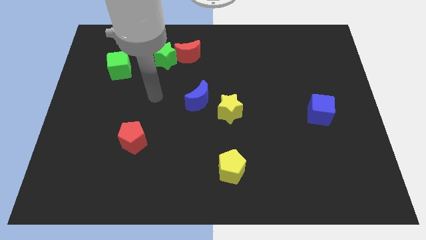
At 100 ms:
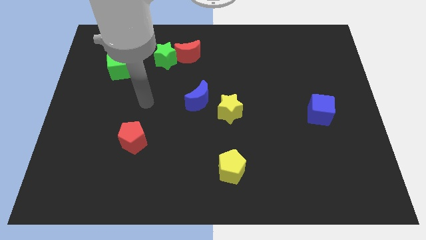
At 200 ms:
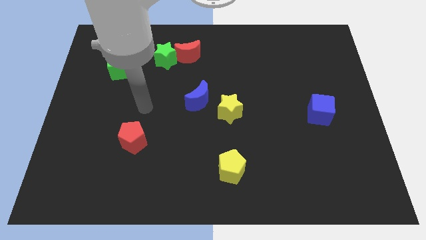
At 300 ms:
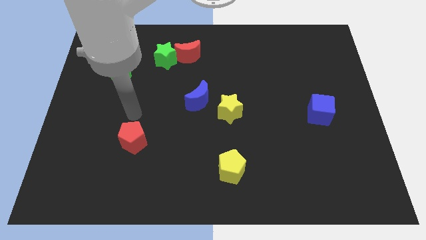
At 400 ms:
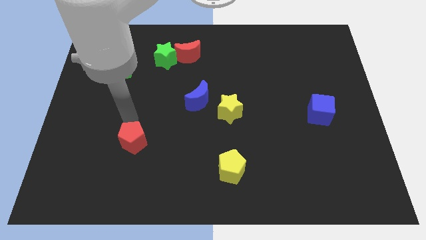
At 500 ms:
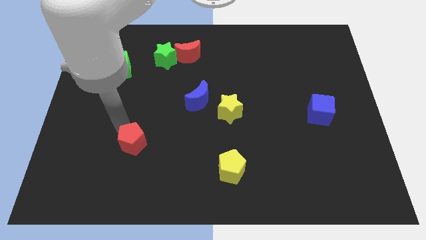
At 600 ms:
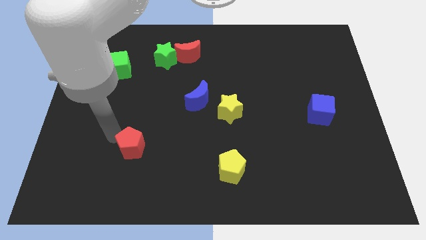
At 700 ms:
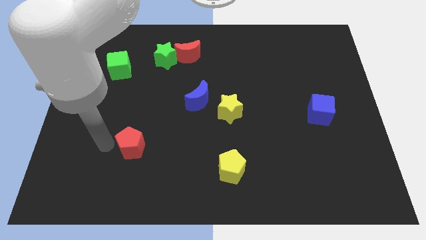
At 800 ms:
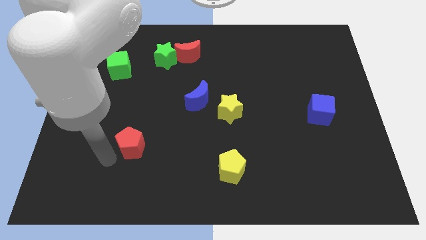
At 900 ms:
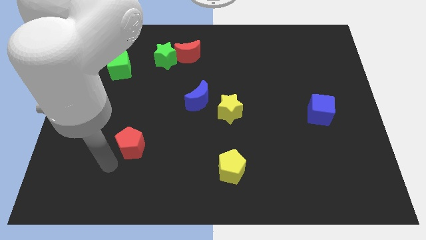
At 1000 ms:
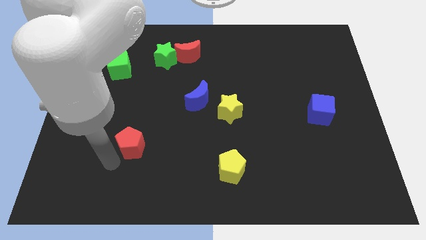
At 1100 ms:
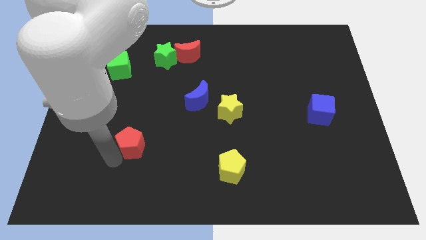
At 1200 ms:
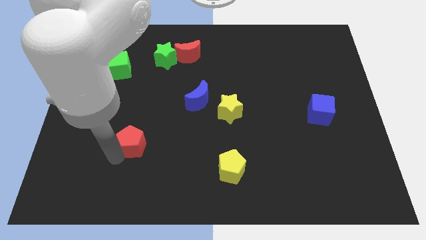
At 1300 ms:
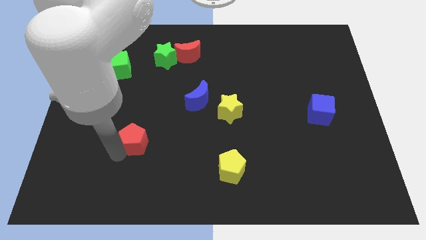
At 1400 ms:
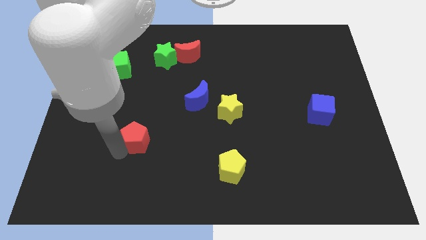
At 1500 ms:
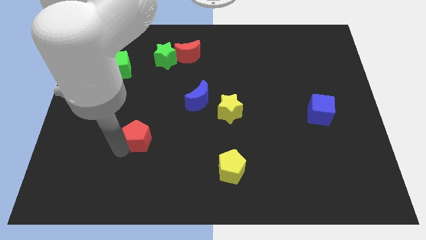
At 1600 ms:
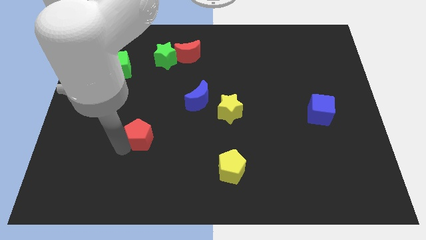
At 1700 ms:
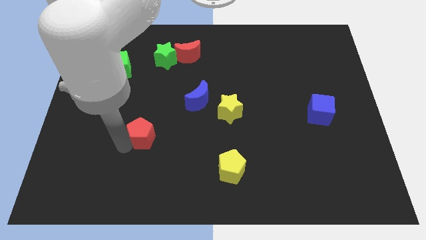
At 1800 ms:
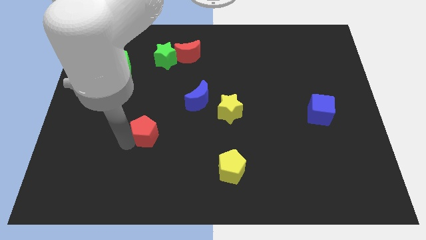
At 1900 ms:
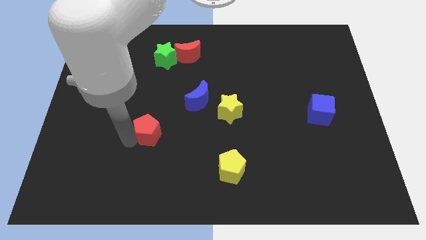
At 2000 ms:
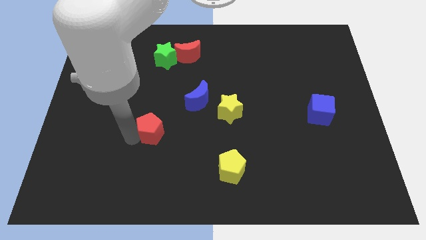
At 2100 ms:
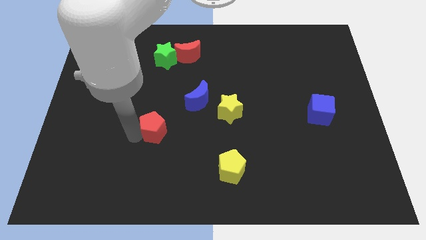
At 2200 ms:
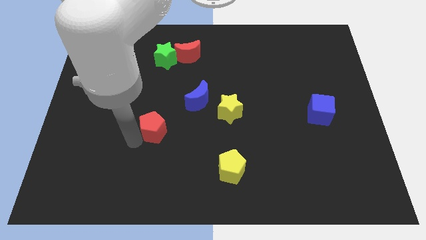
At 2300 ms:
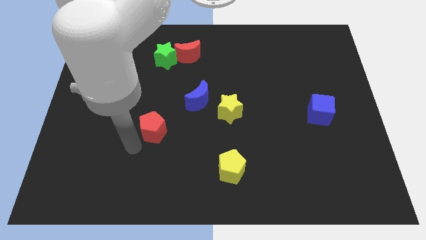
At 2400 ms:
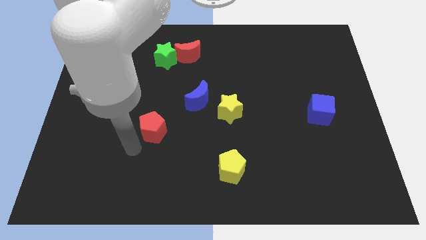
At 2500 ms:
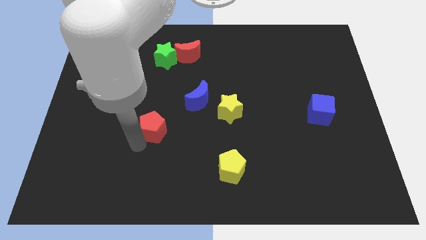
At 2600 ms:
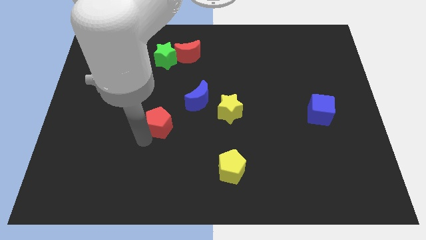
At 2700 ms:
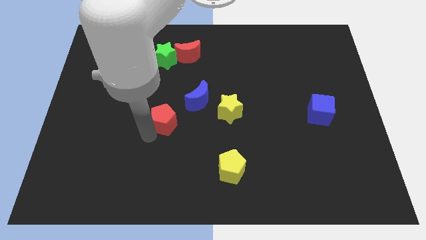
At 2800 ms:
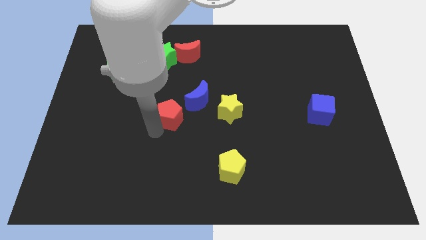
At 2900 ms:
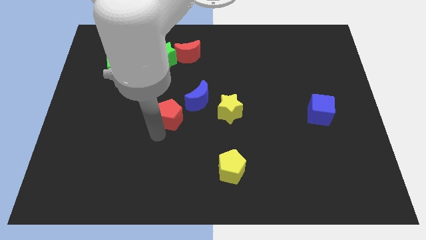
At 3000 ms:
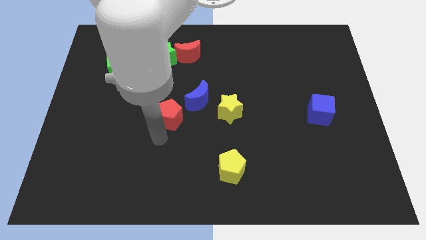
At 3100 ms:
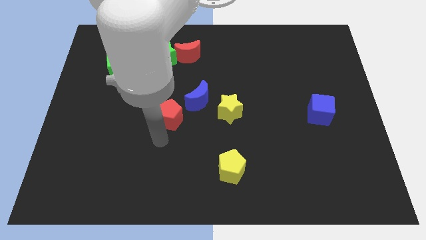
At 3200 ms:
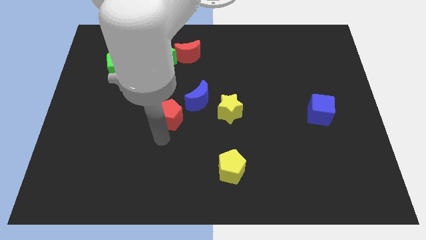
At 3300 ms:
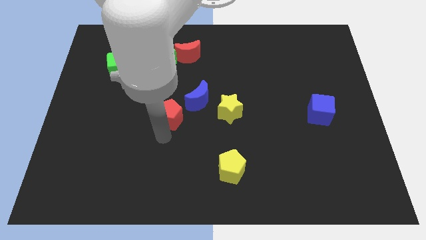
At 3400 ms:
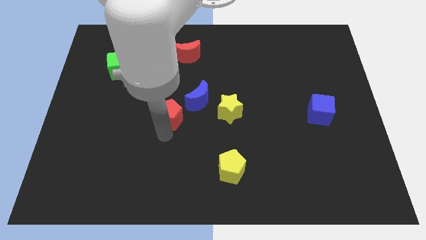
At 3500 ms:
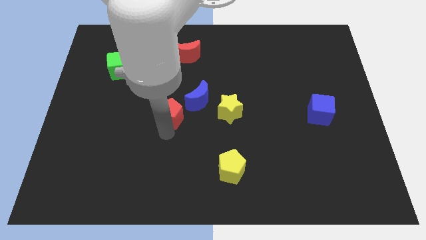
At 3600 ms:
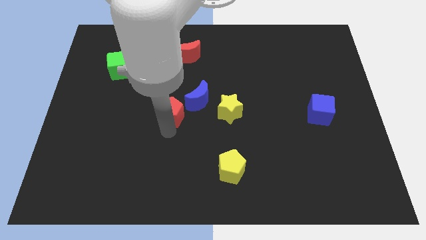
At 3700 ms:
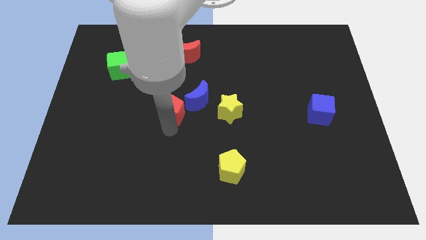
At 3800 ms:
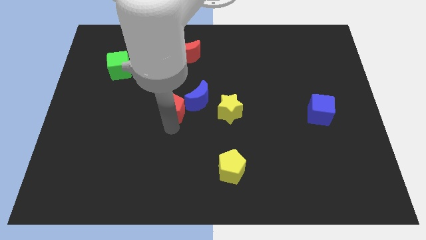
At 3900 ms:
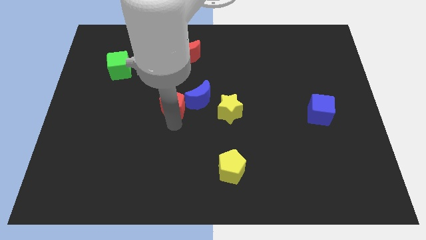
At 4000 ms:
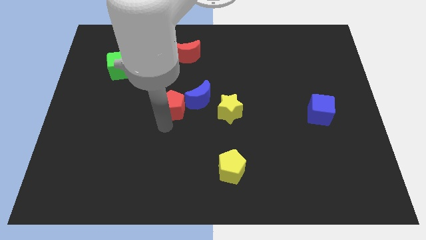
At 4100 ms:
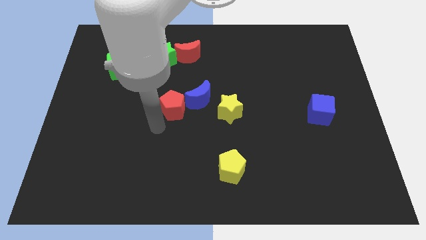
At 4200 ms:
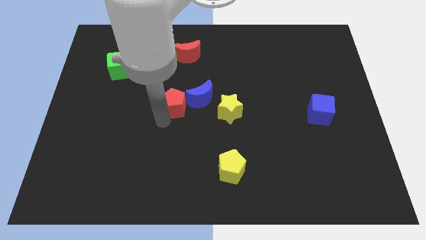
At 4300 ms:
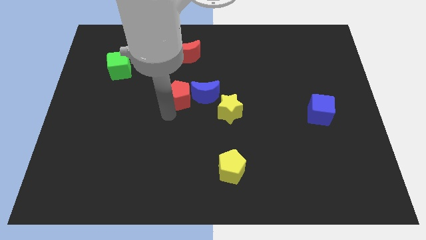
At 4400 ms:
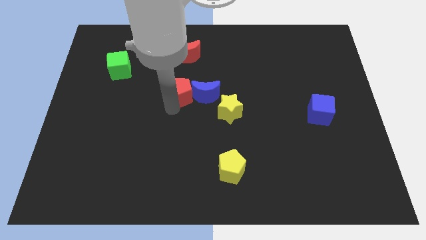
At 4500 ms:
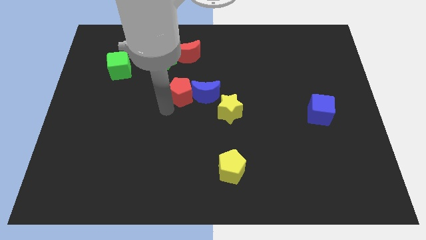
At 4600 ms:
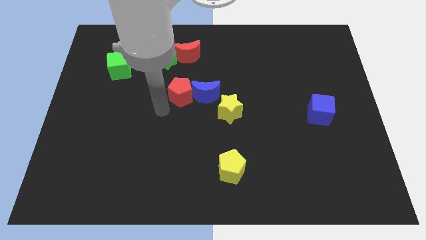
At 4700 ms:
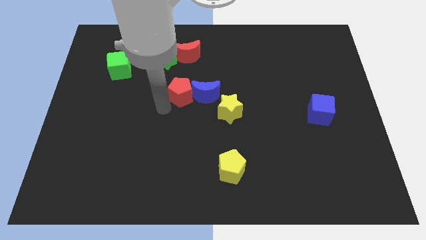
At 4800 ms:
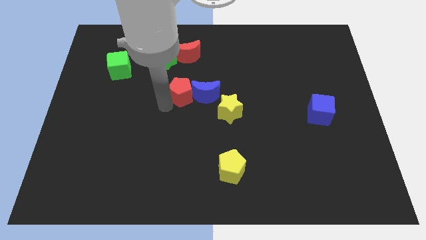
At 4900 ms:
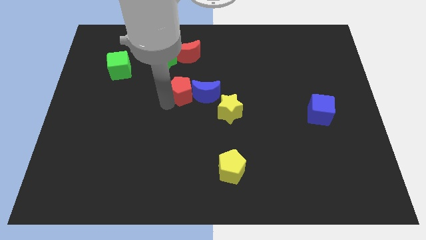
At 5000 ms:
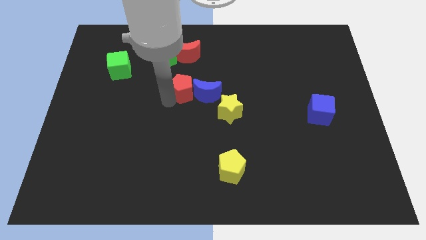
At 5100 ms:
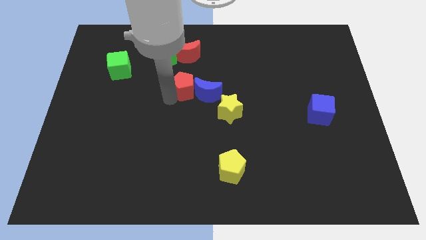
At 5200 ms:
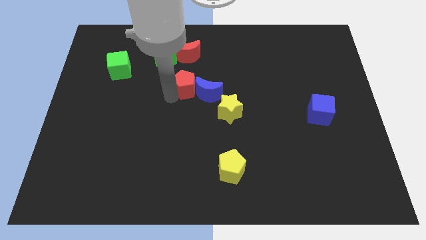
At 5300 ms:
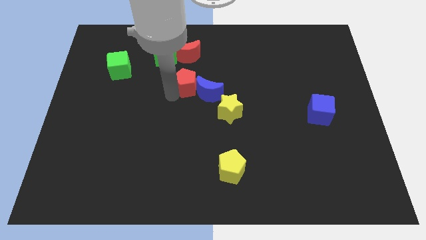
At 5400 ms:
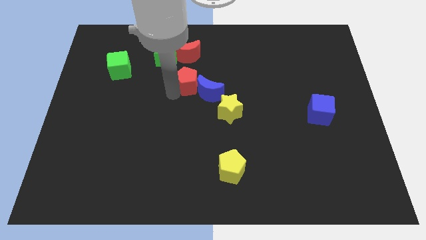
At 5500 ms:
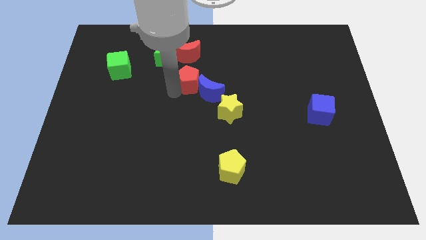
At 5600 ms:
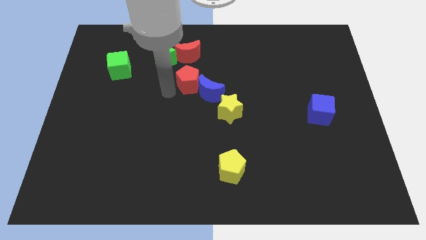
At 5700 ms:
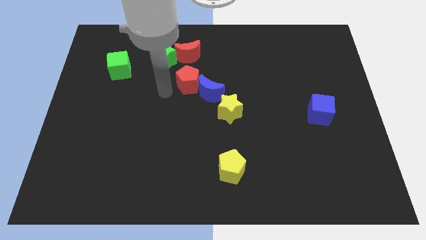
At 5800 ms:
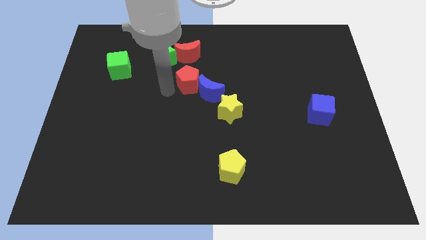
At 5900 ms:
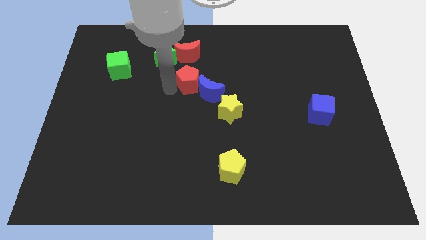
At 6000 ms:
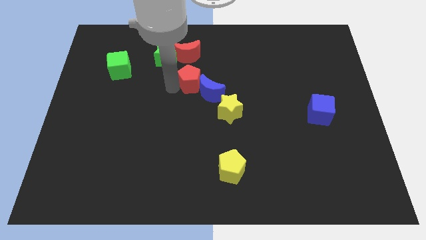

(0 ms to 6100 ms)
push the red pentagon up and to the right diagonally

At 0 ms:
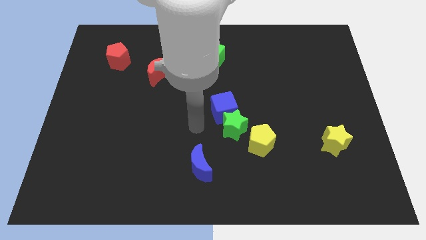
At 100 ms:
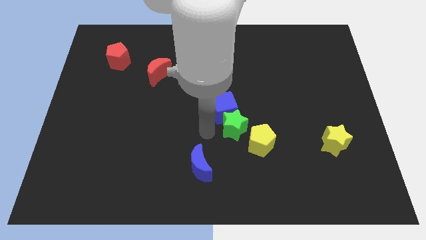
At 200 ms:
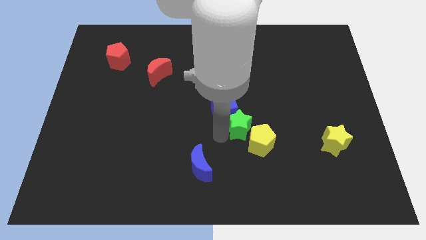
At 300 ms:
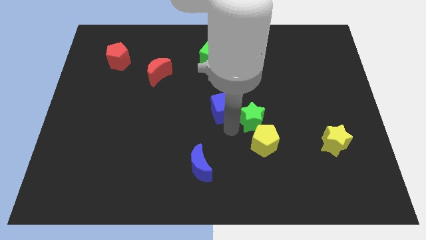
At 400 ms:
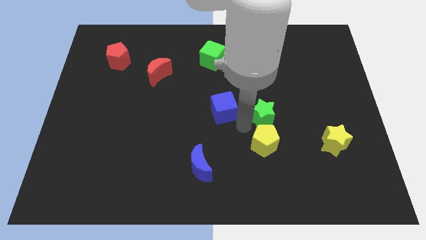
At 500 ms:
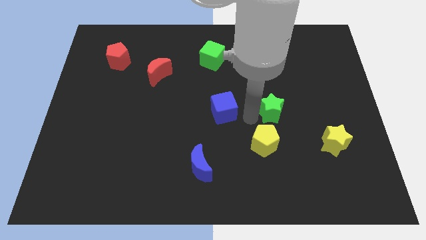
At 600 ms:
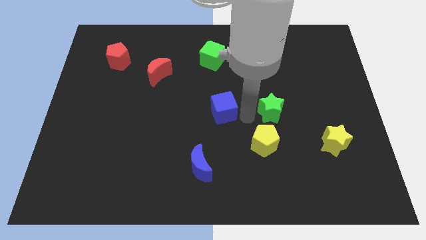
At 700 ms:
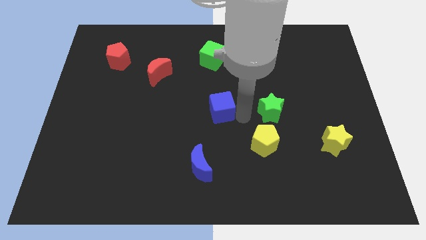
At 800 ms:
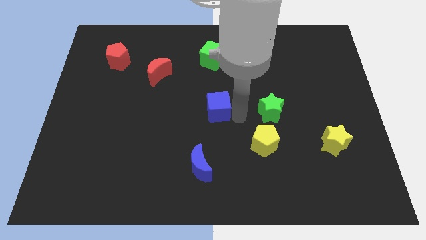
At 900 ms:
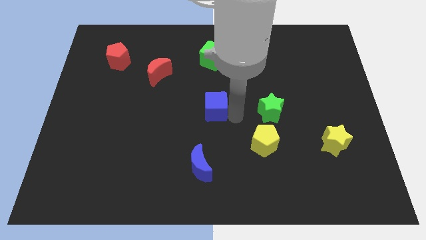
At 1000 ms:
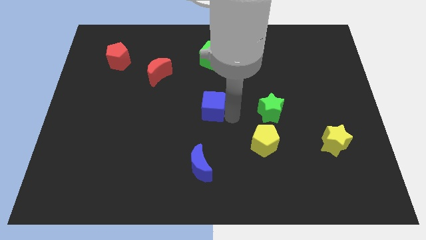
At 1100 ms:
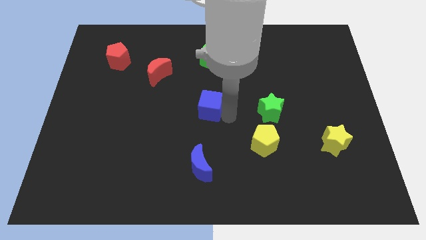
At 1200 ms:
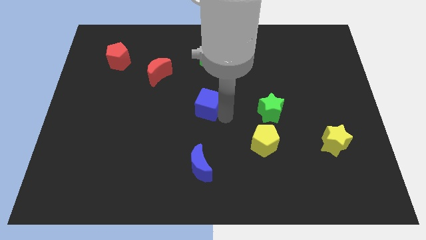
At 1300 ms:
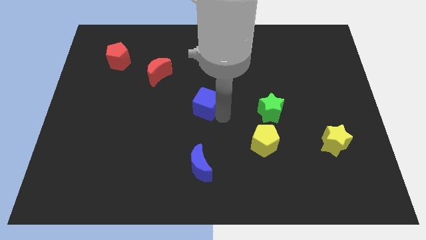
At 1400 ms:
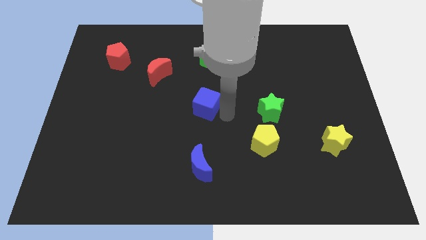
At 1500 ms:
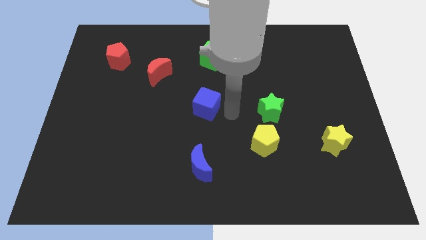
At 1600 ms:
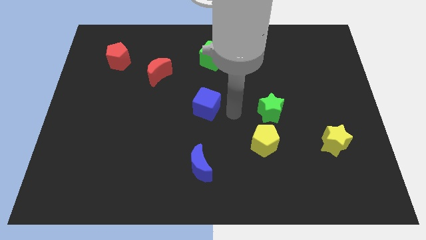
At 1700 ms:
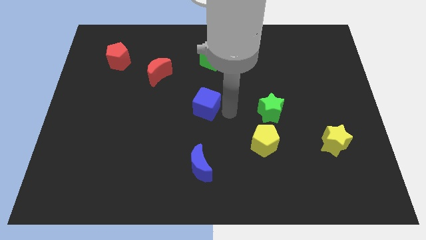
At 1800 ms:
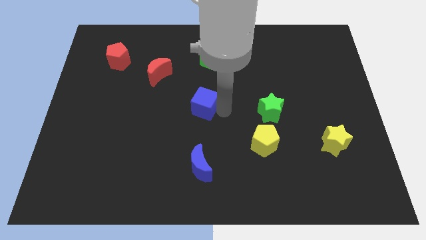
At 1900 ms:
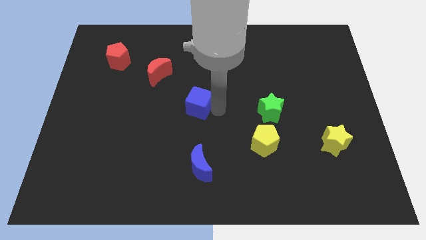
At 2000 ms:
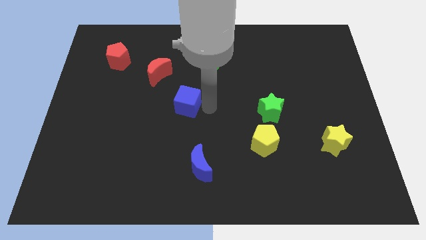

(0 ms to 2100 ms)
slightly slide the blue cube to the left
